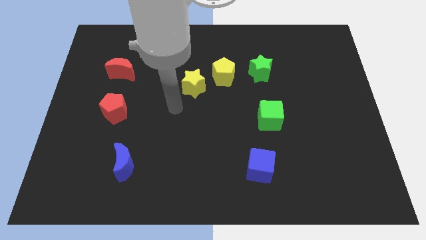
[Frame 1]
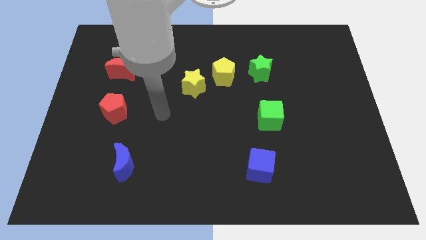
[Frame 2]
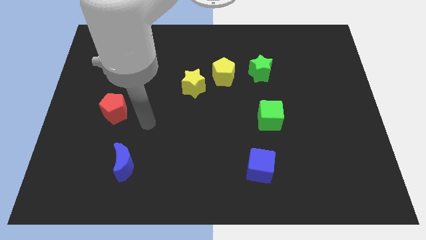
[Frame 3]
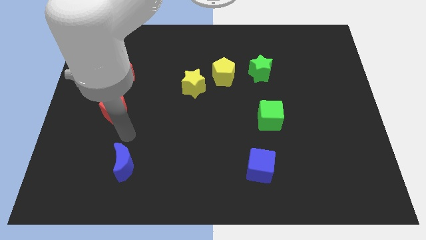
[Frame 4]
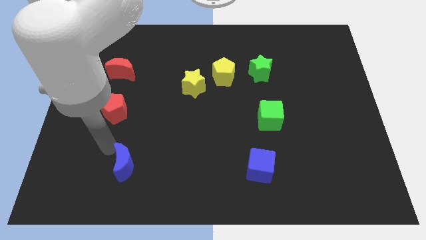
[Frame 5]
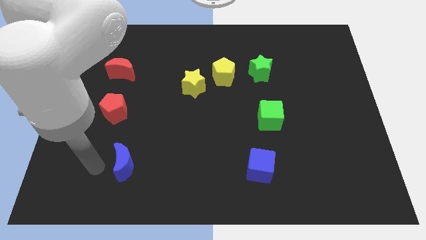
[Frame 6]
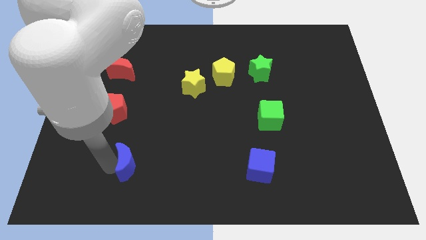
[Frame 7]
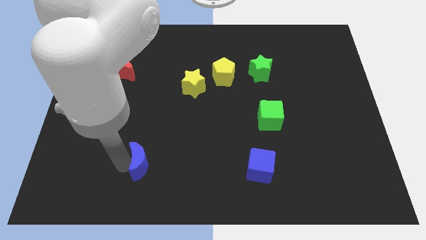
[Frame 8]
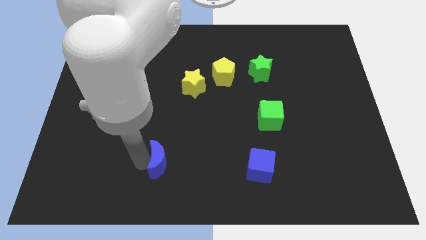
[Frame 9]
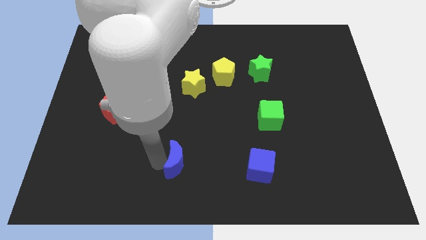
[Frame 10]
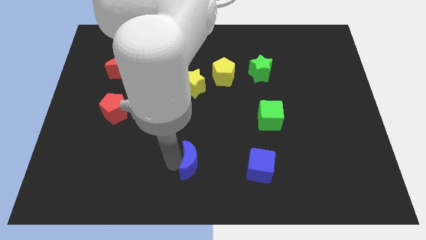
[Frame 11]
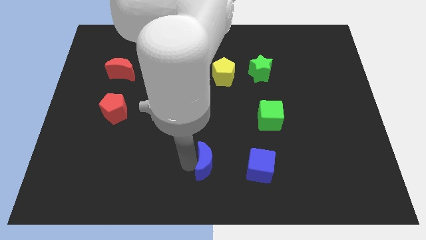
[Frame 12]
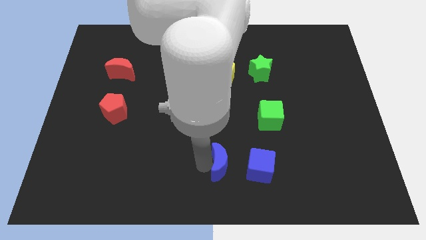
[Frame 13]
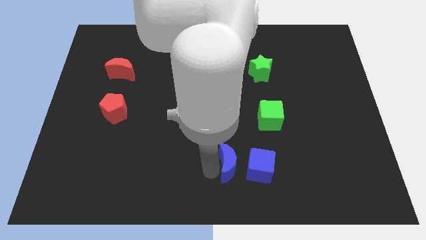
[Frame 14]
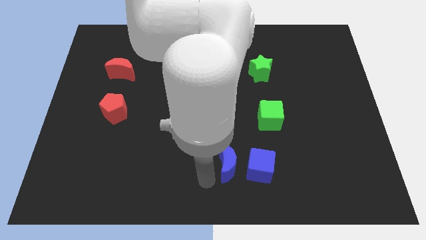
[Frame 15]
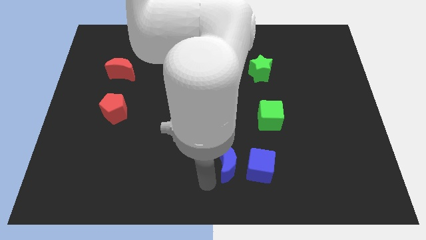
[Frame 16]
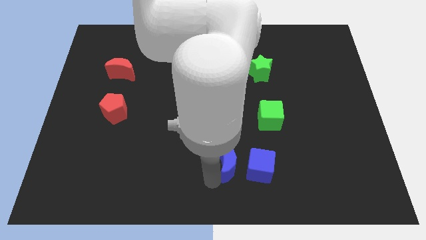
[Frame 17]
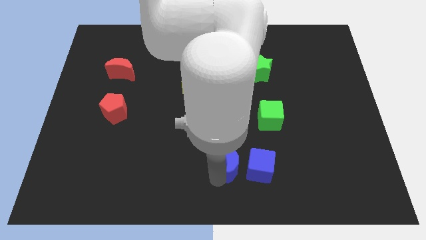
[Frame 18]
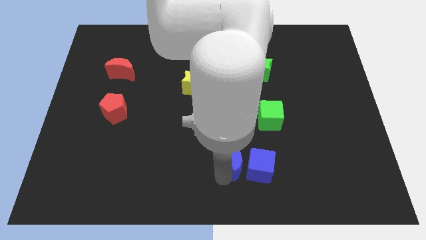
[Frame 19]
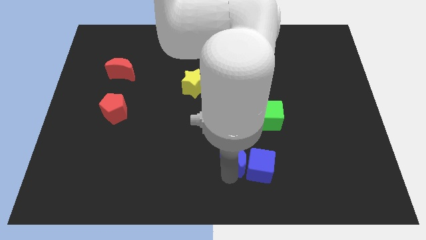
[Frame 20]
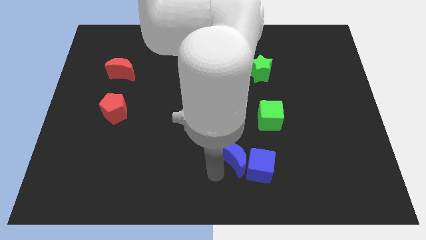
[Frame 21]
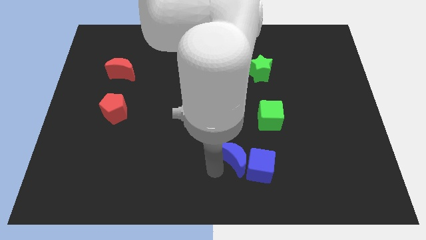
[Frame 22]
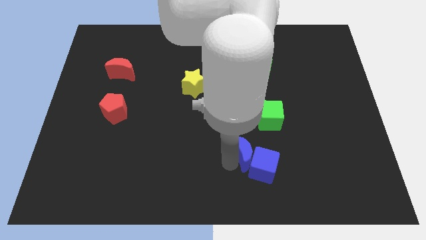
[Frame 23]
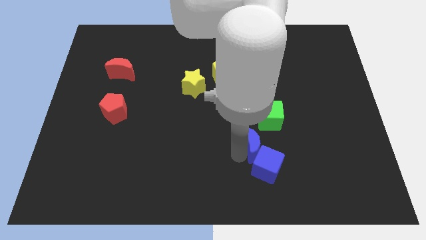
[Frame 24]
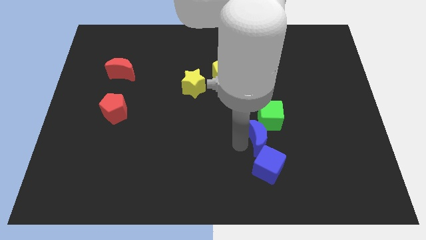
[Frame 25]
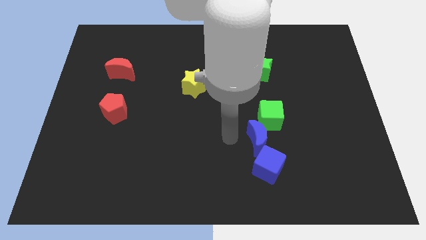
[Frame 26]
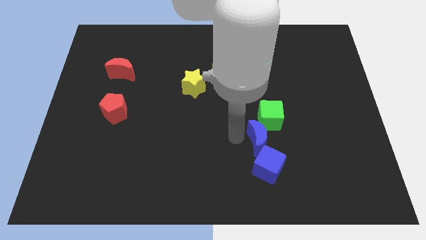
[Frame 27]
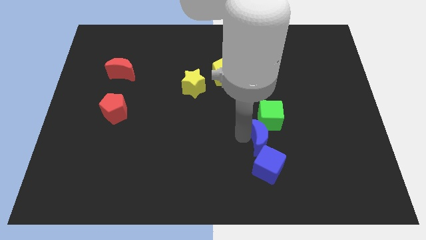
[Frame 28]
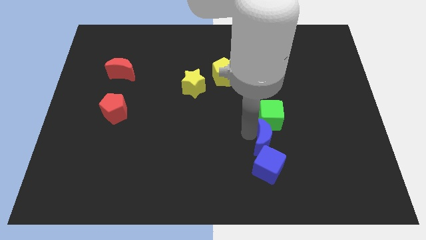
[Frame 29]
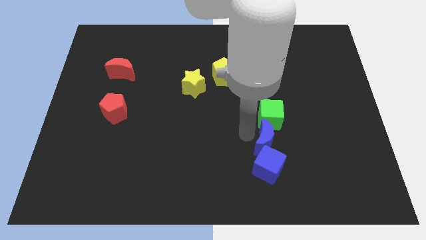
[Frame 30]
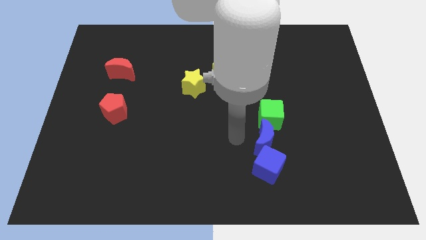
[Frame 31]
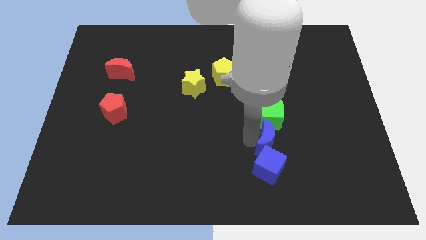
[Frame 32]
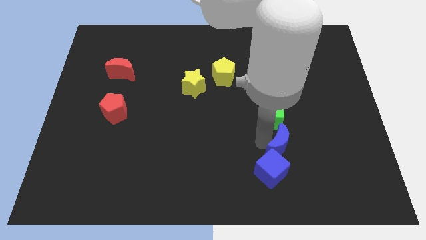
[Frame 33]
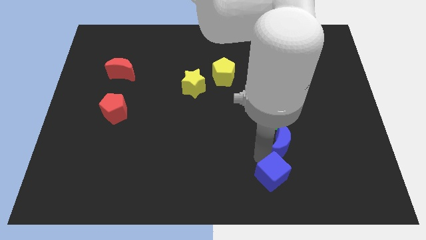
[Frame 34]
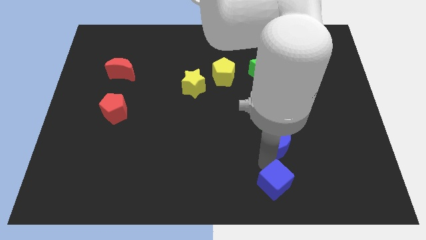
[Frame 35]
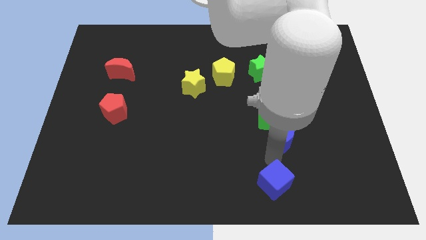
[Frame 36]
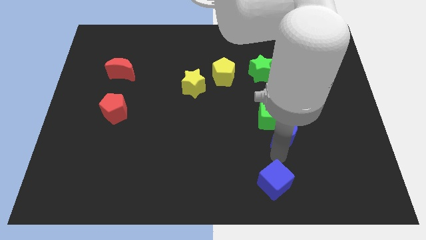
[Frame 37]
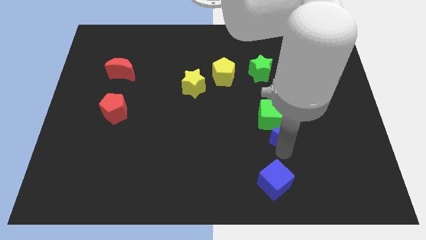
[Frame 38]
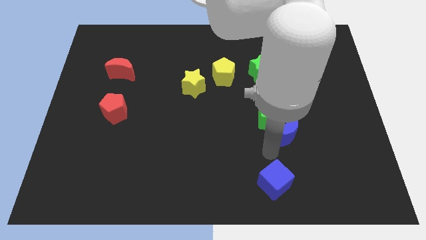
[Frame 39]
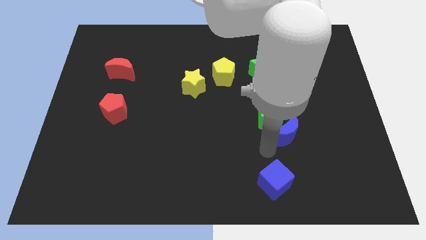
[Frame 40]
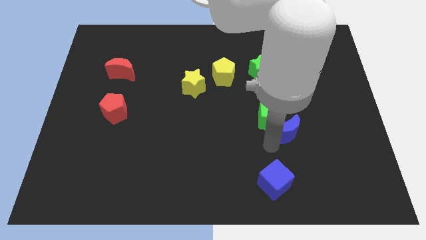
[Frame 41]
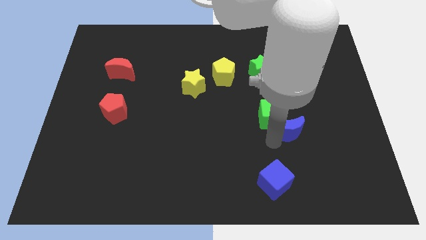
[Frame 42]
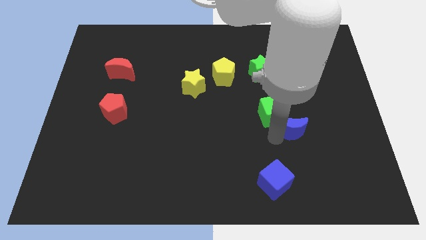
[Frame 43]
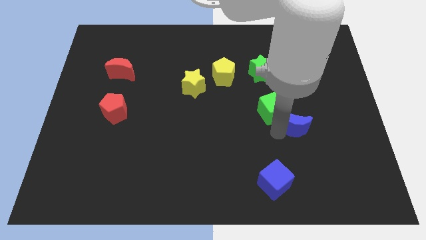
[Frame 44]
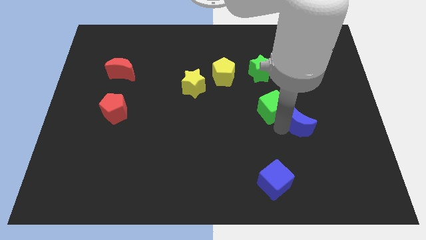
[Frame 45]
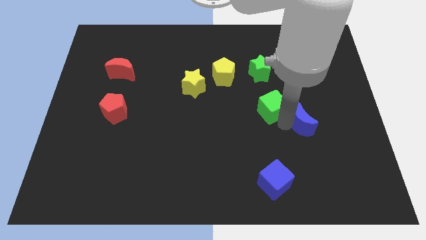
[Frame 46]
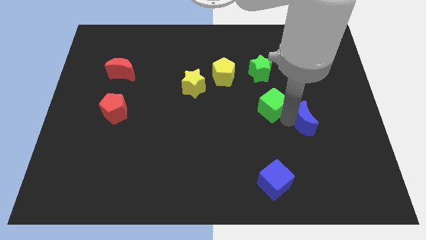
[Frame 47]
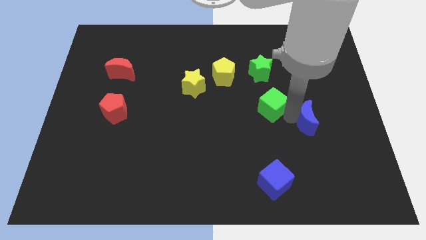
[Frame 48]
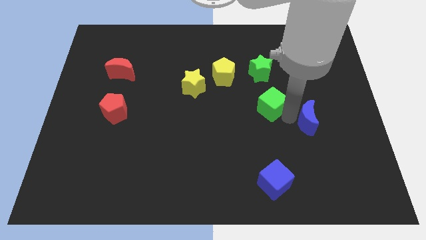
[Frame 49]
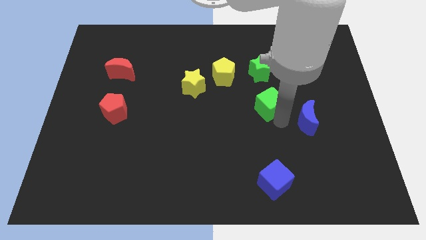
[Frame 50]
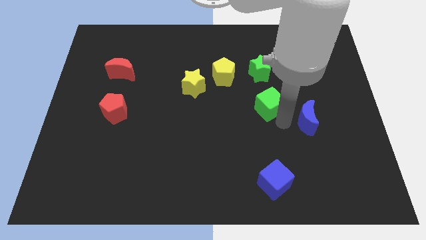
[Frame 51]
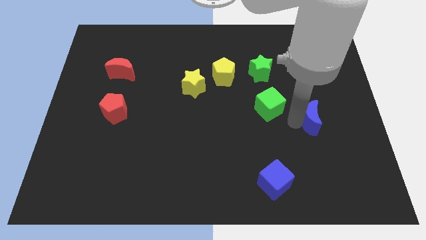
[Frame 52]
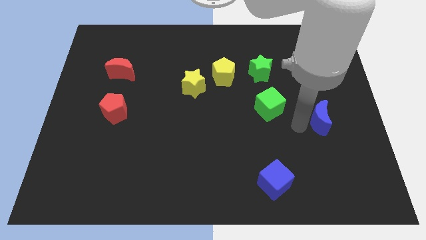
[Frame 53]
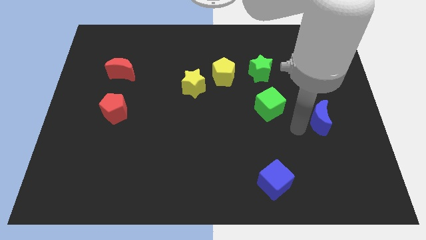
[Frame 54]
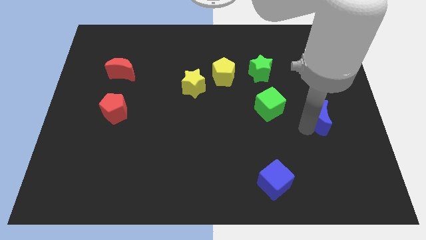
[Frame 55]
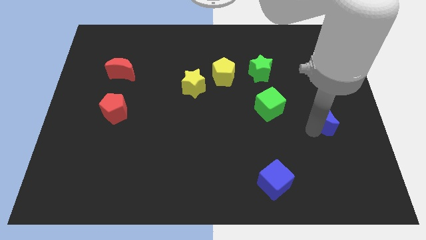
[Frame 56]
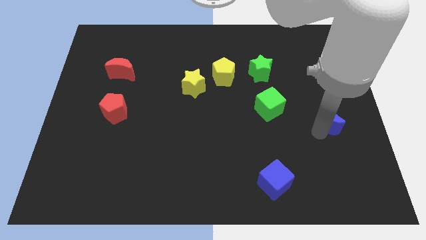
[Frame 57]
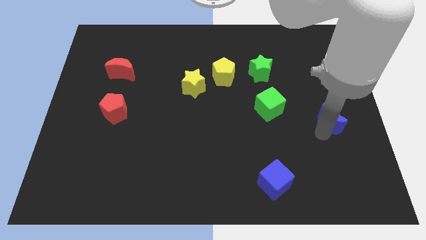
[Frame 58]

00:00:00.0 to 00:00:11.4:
move the blue moon to the center right

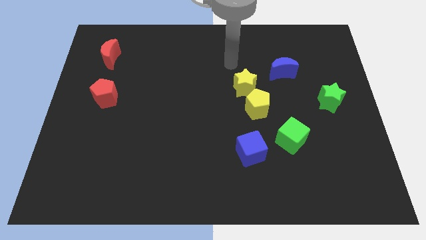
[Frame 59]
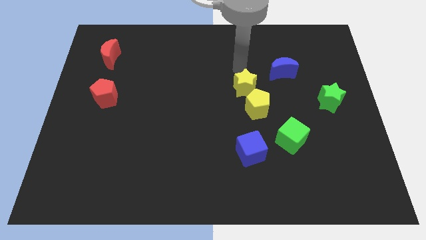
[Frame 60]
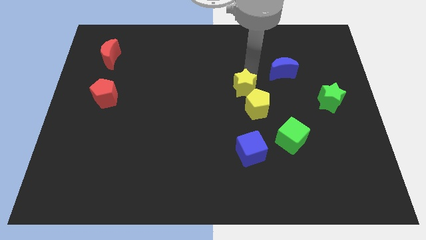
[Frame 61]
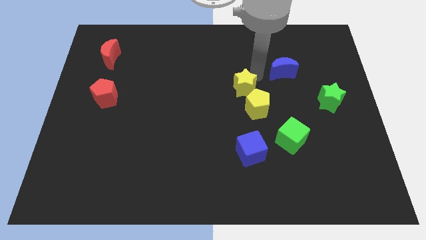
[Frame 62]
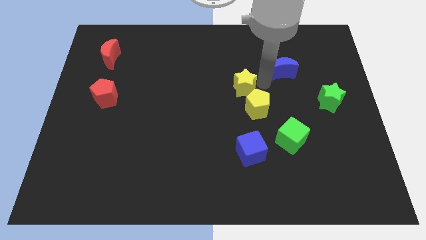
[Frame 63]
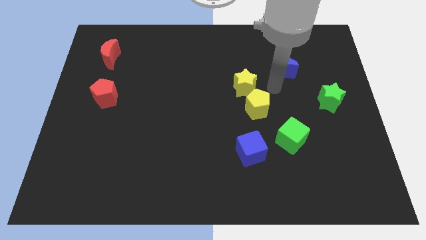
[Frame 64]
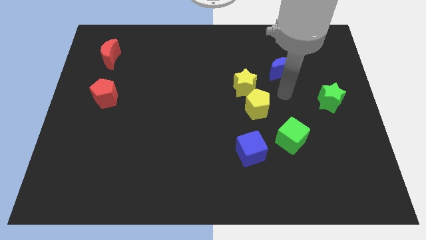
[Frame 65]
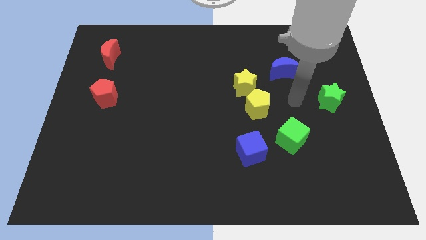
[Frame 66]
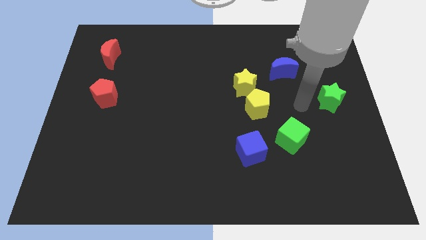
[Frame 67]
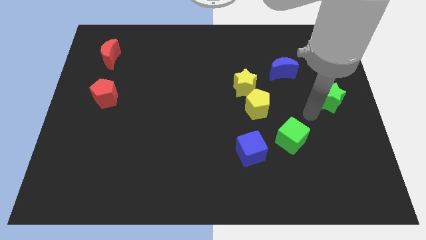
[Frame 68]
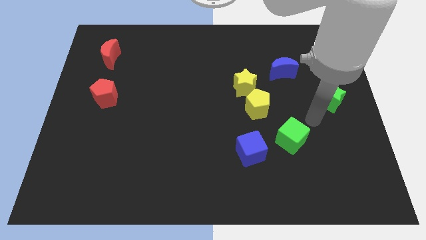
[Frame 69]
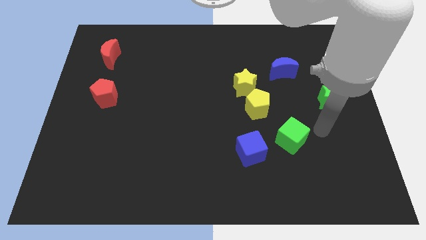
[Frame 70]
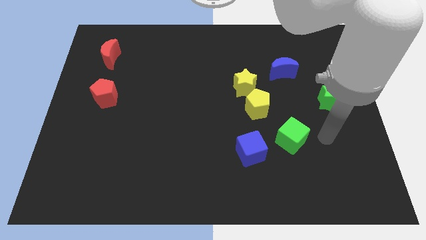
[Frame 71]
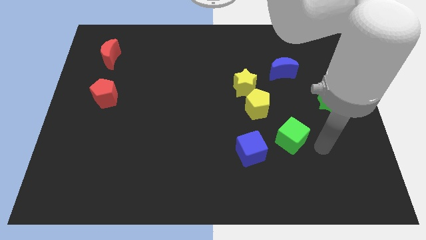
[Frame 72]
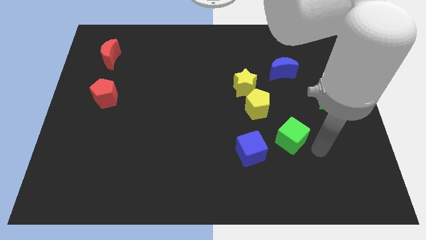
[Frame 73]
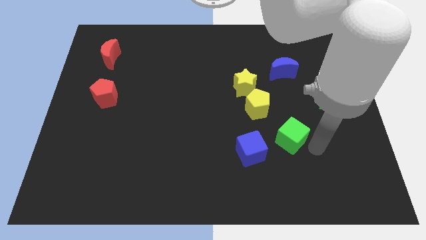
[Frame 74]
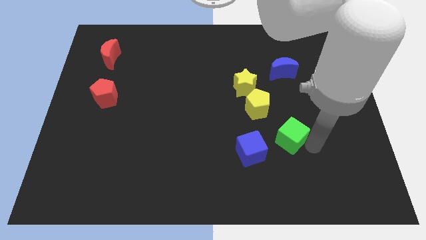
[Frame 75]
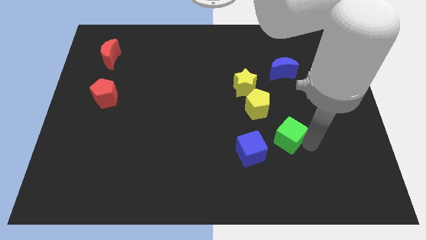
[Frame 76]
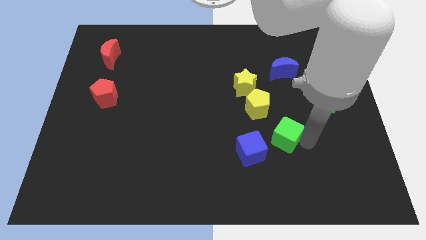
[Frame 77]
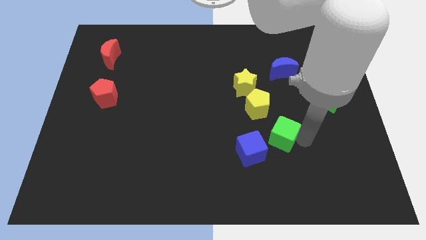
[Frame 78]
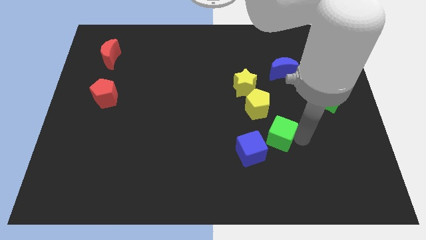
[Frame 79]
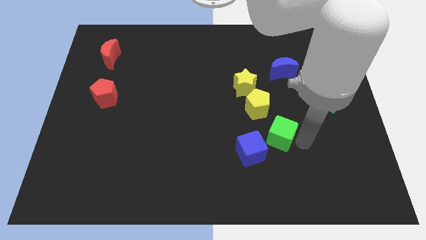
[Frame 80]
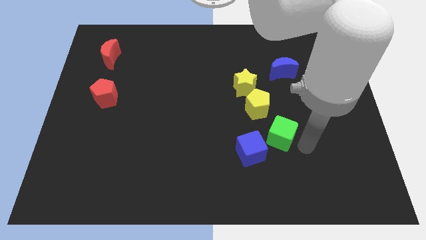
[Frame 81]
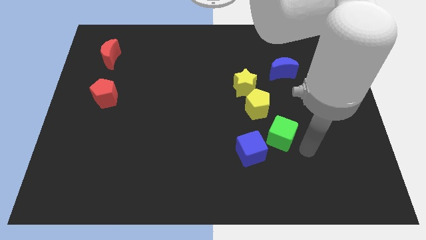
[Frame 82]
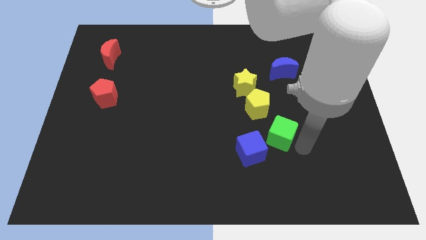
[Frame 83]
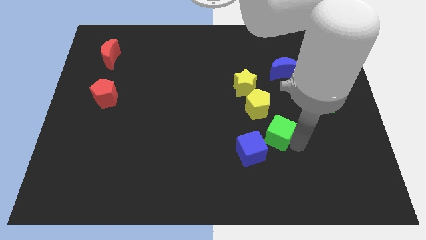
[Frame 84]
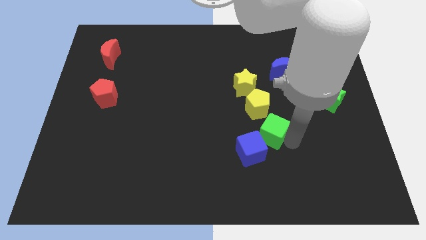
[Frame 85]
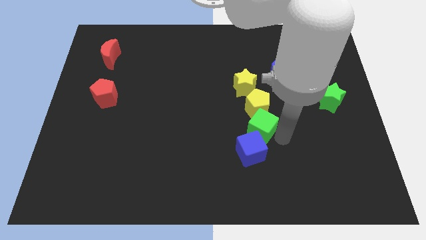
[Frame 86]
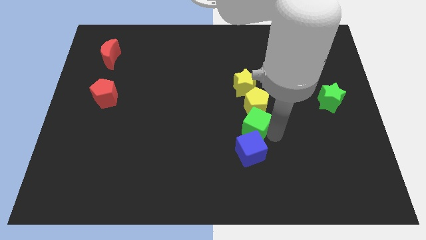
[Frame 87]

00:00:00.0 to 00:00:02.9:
move the green cube to the middle
